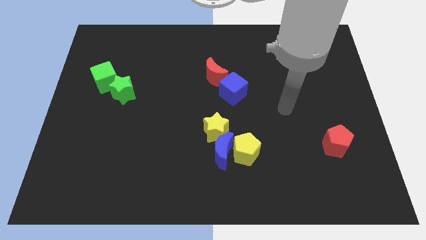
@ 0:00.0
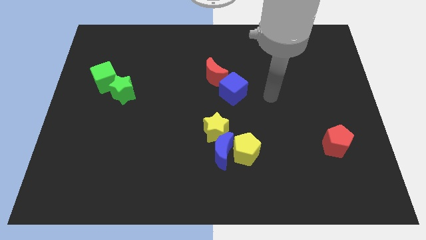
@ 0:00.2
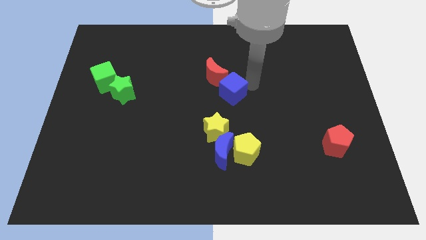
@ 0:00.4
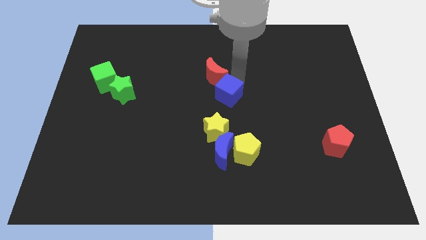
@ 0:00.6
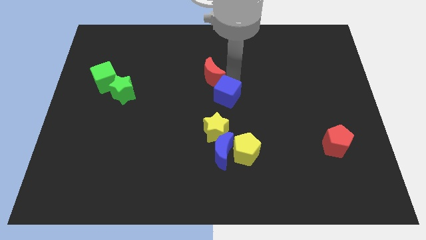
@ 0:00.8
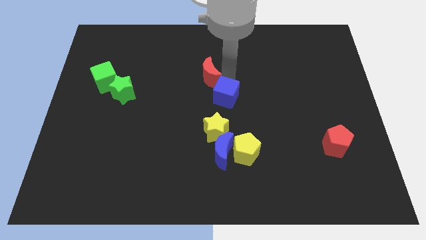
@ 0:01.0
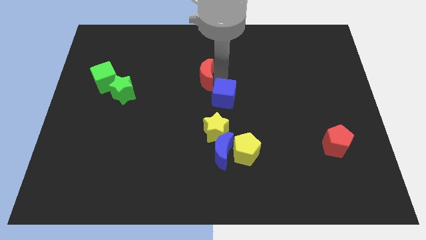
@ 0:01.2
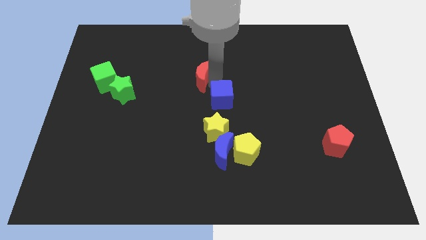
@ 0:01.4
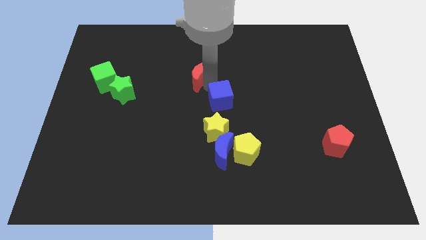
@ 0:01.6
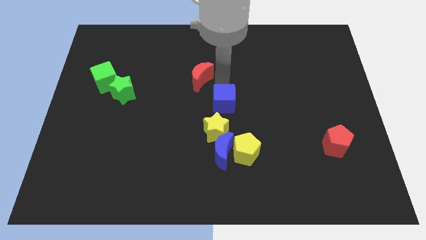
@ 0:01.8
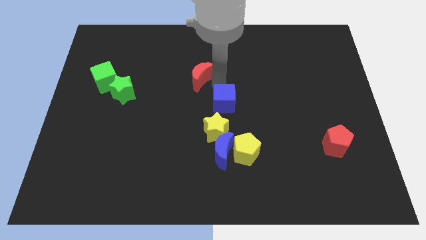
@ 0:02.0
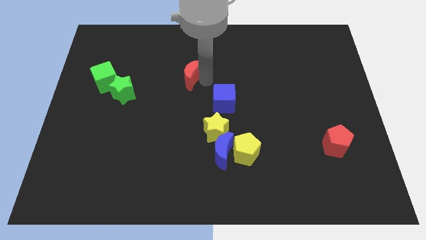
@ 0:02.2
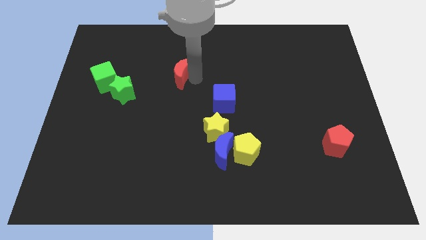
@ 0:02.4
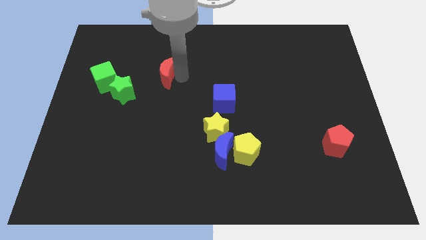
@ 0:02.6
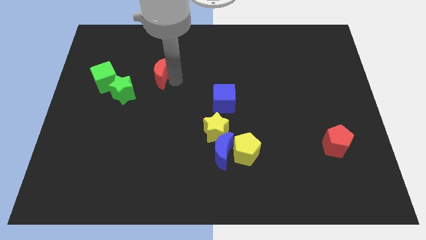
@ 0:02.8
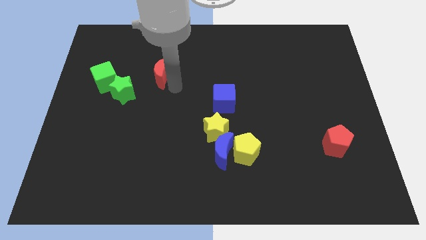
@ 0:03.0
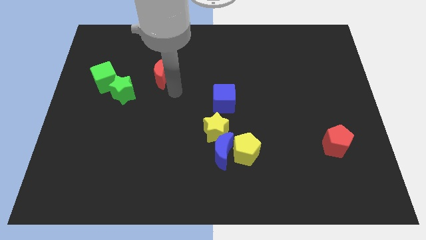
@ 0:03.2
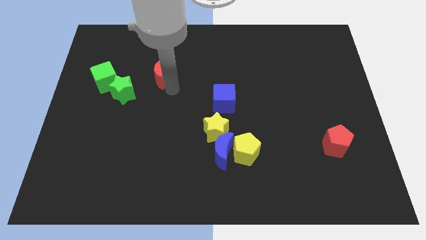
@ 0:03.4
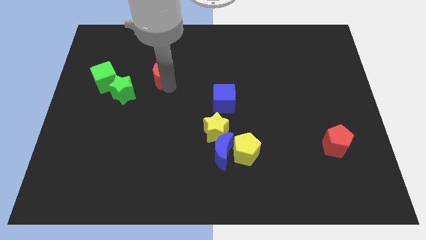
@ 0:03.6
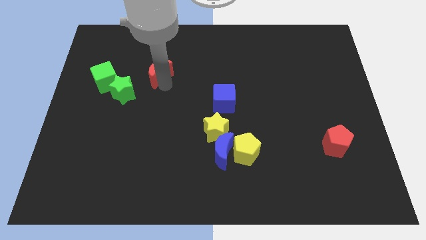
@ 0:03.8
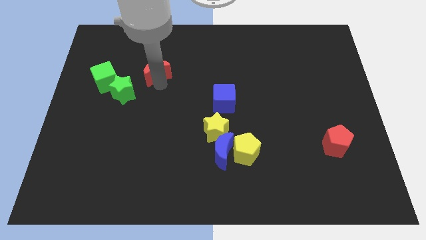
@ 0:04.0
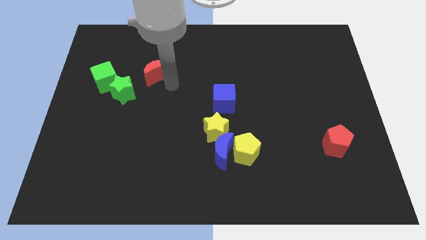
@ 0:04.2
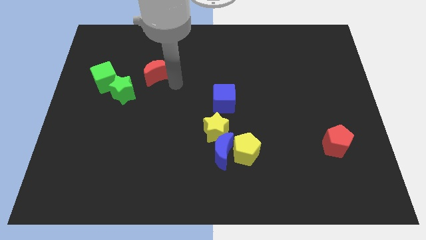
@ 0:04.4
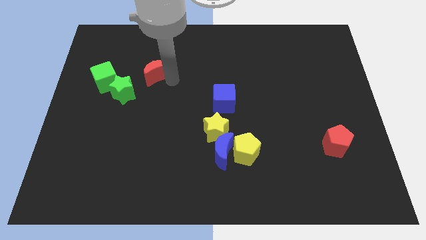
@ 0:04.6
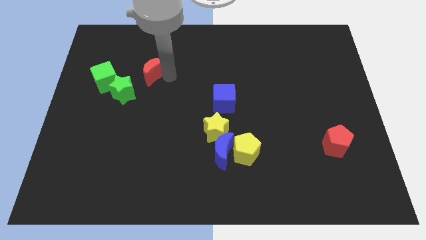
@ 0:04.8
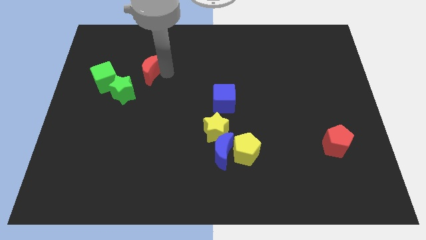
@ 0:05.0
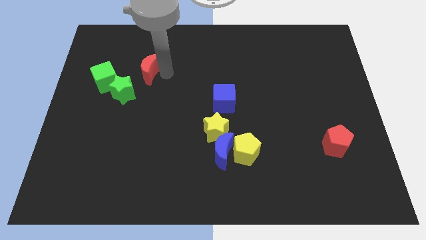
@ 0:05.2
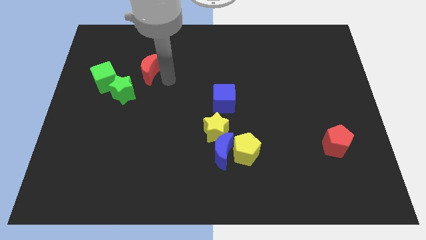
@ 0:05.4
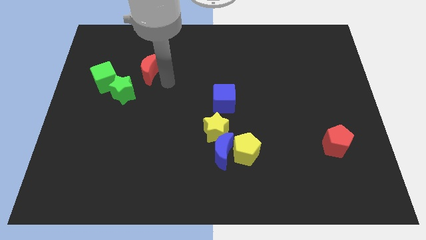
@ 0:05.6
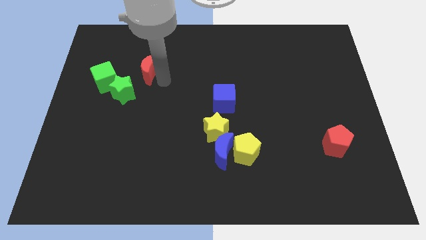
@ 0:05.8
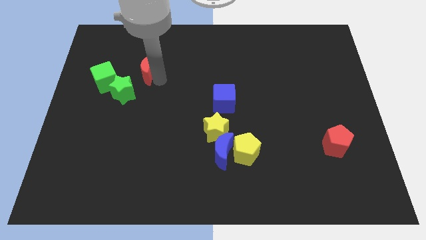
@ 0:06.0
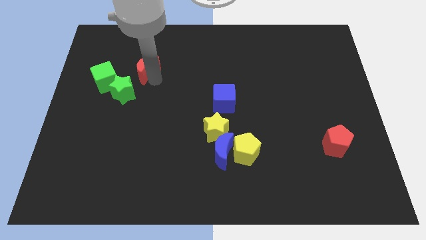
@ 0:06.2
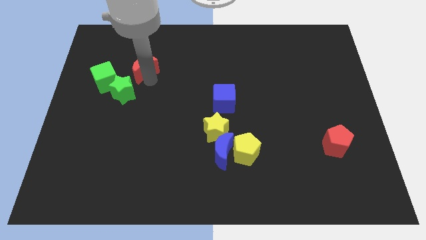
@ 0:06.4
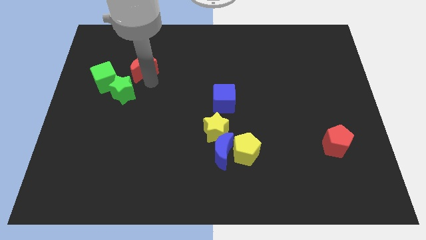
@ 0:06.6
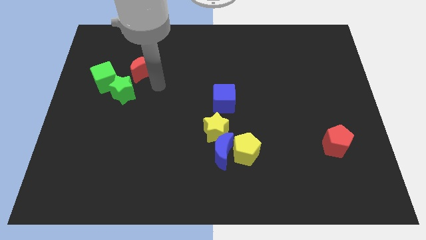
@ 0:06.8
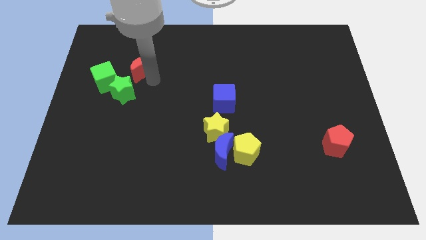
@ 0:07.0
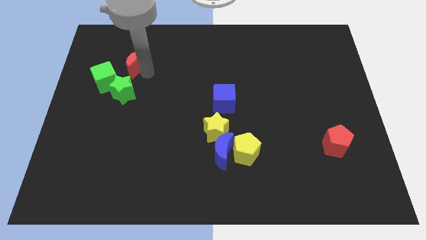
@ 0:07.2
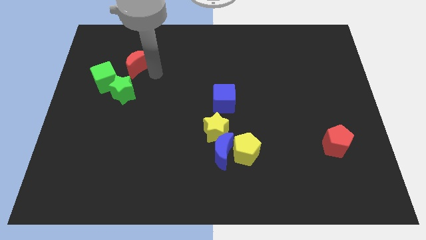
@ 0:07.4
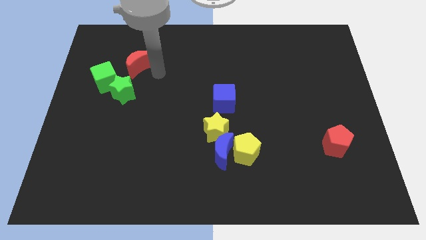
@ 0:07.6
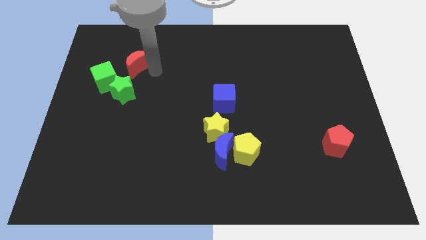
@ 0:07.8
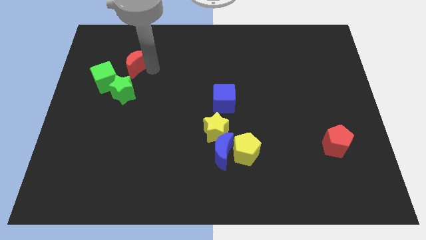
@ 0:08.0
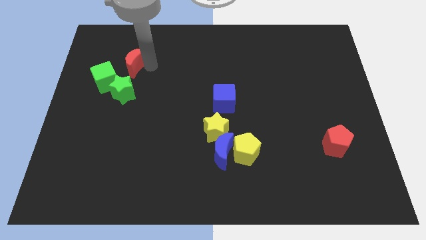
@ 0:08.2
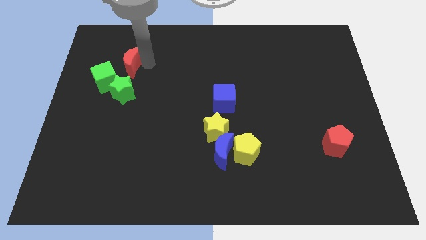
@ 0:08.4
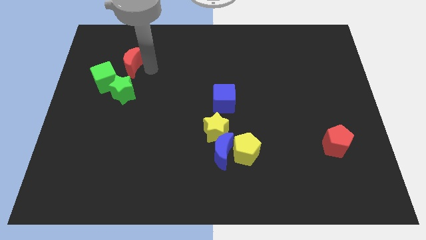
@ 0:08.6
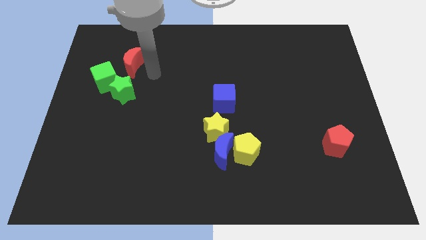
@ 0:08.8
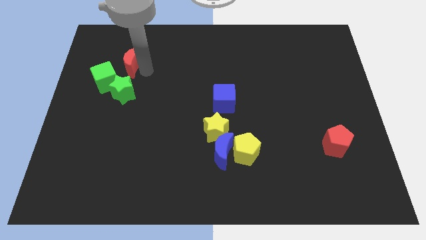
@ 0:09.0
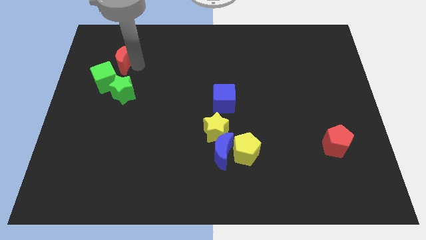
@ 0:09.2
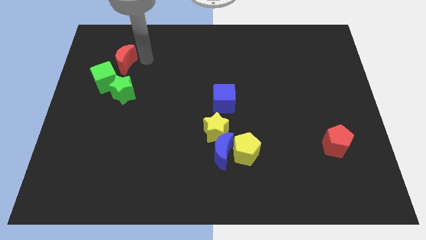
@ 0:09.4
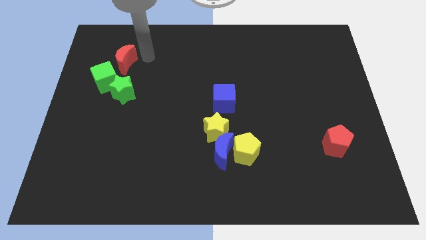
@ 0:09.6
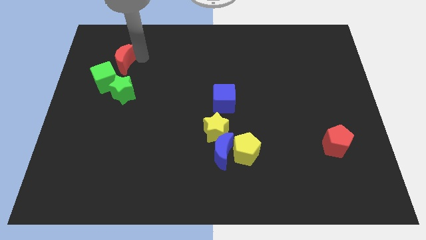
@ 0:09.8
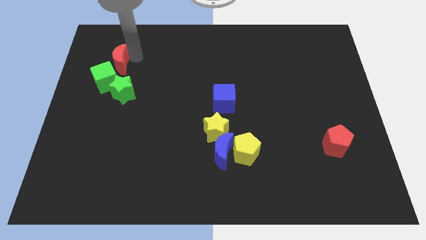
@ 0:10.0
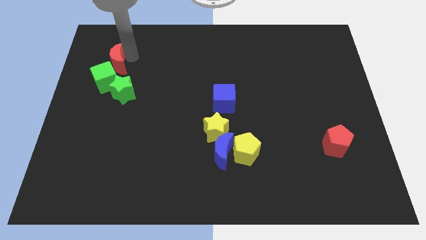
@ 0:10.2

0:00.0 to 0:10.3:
slide the red moon to the top left of the green star

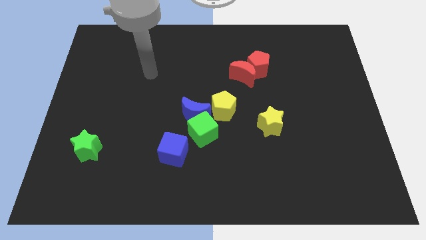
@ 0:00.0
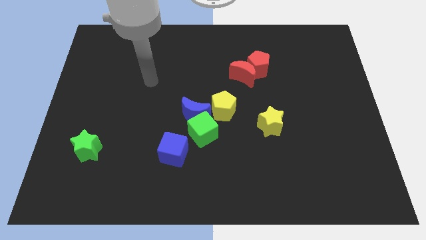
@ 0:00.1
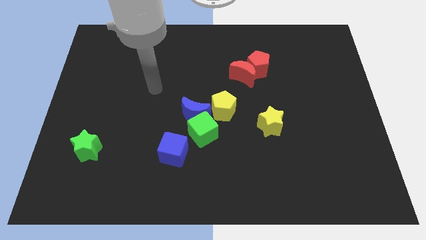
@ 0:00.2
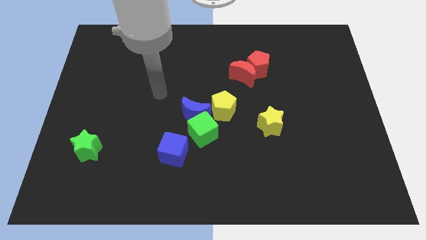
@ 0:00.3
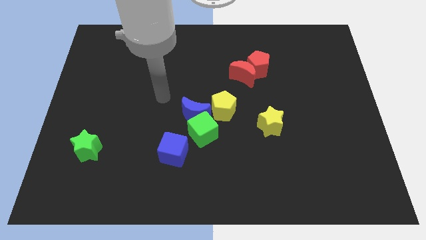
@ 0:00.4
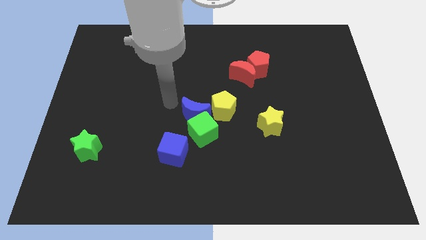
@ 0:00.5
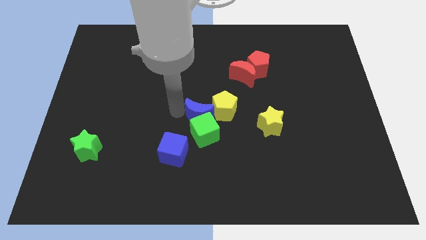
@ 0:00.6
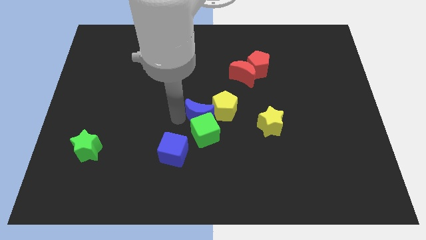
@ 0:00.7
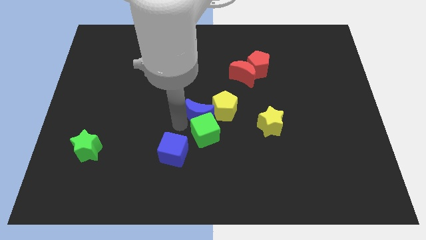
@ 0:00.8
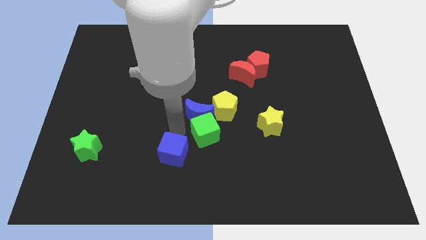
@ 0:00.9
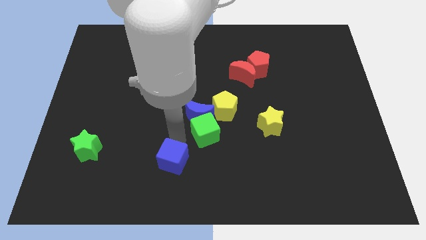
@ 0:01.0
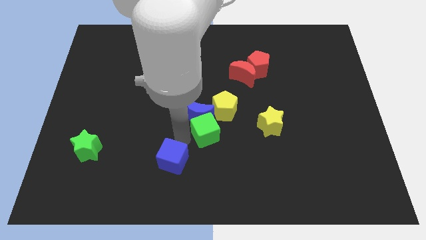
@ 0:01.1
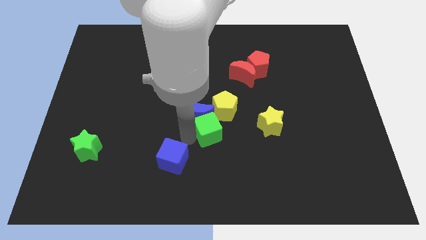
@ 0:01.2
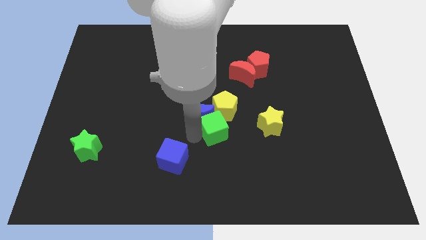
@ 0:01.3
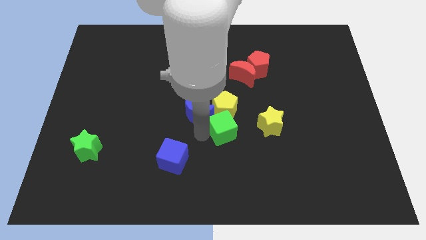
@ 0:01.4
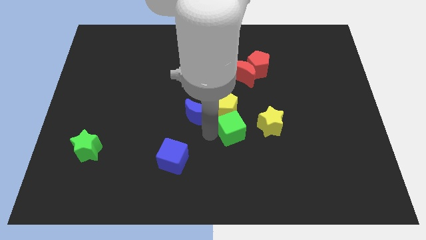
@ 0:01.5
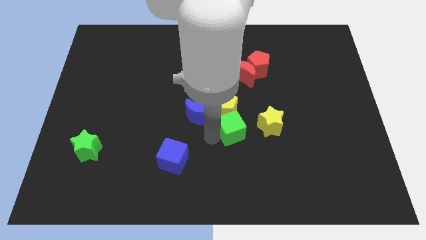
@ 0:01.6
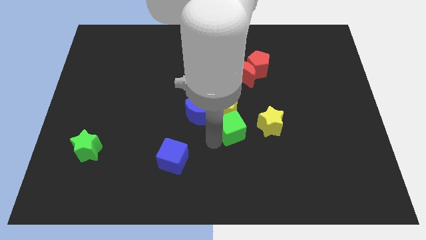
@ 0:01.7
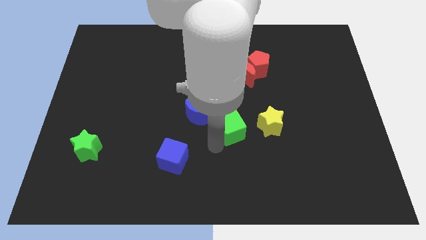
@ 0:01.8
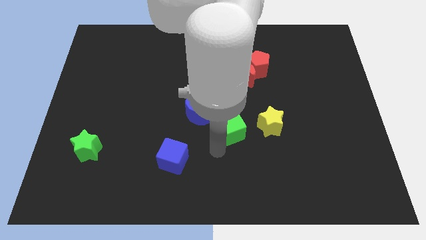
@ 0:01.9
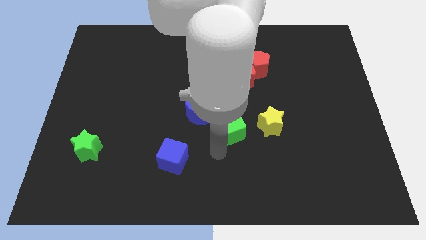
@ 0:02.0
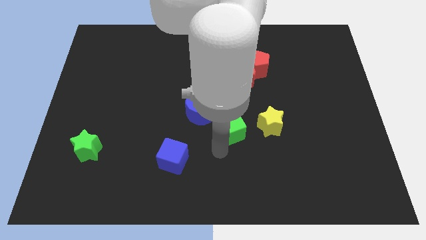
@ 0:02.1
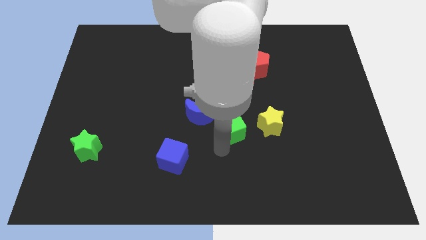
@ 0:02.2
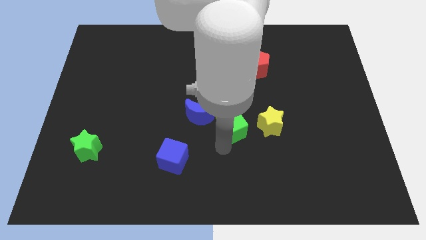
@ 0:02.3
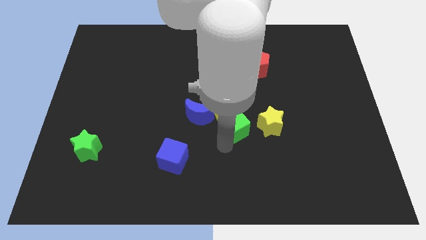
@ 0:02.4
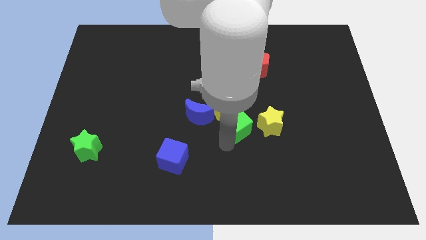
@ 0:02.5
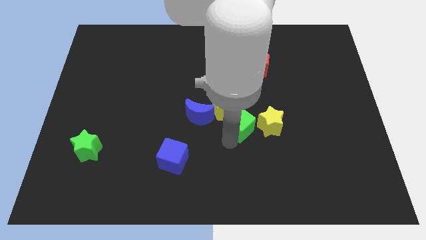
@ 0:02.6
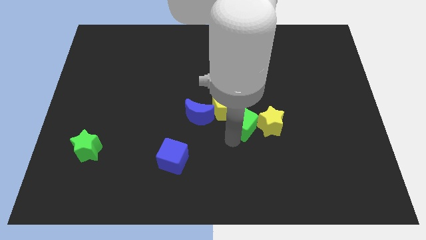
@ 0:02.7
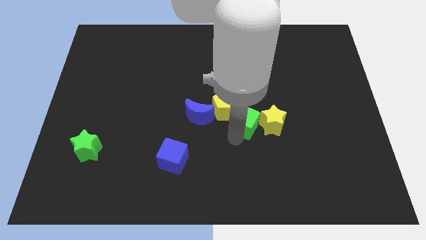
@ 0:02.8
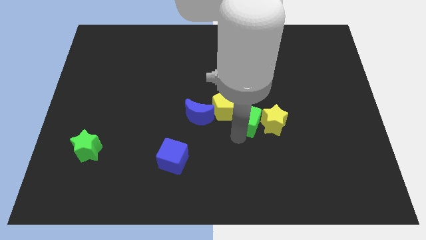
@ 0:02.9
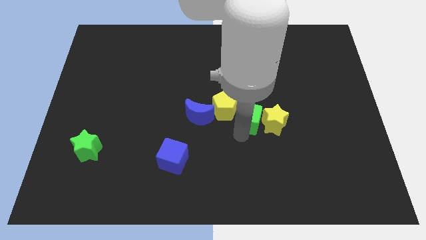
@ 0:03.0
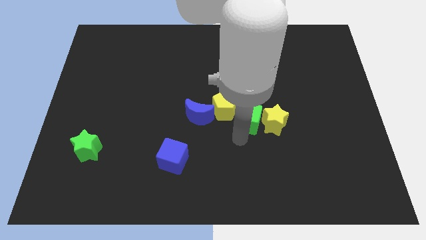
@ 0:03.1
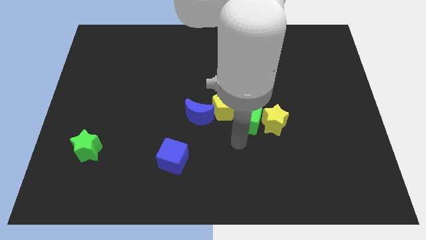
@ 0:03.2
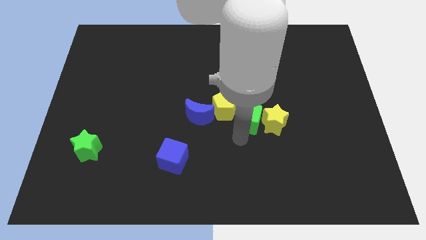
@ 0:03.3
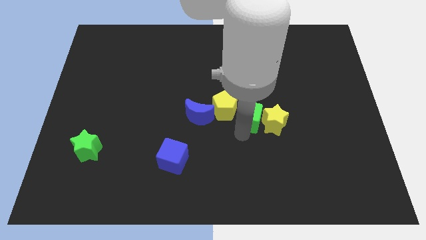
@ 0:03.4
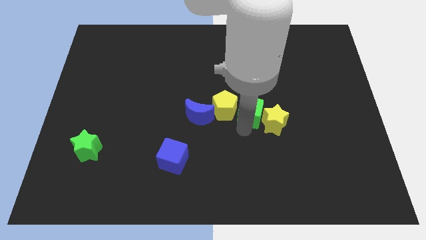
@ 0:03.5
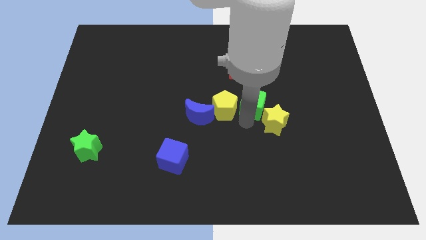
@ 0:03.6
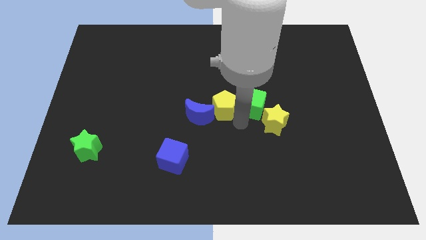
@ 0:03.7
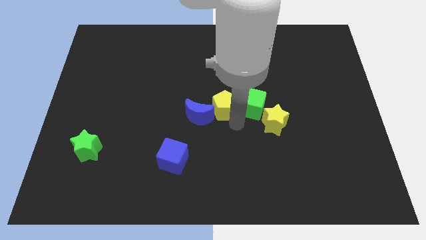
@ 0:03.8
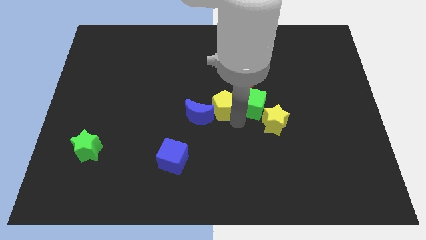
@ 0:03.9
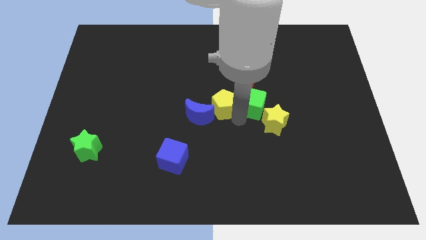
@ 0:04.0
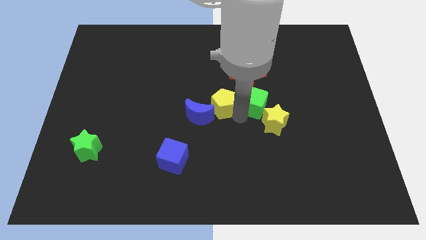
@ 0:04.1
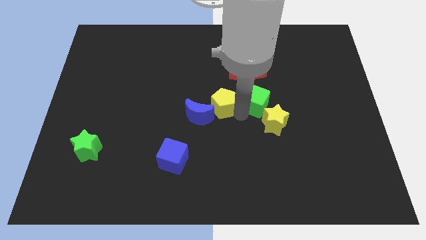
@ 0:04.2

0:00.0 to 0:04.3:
put the green cube to the bottom right of the red moon
